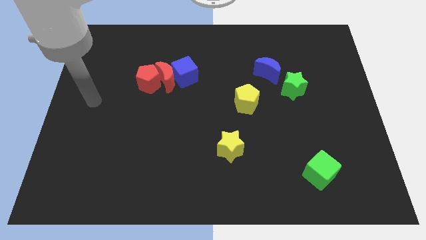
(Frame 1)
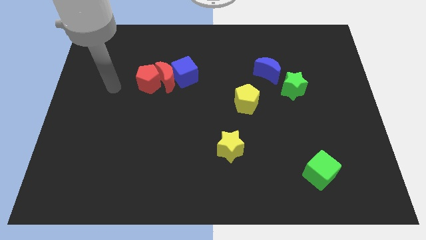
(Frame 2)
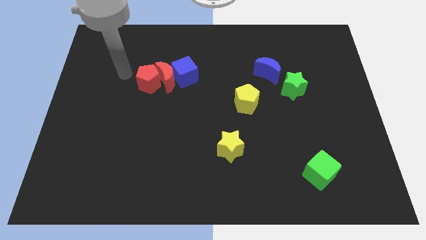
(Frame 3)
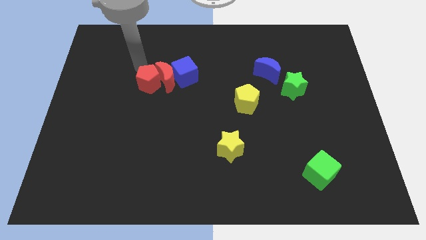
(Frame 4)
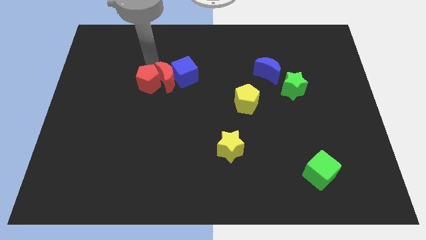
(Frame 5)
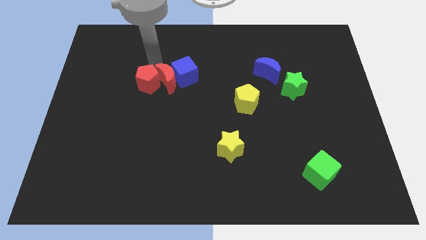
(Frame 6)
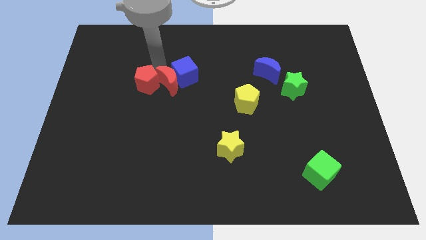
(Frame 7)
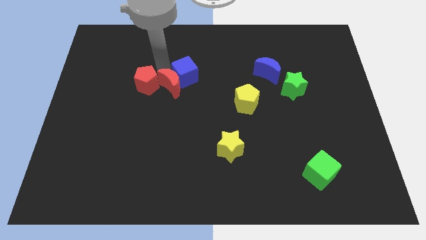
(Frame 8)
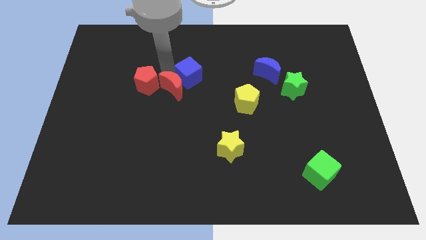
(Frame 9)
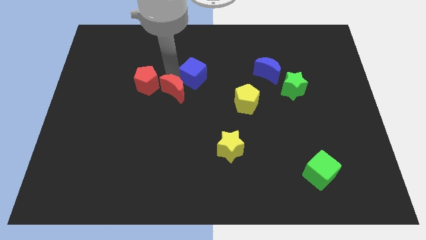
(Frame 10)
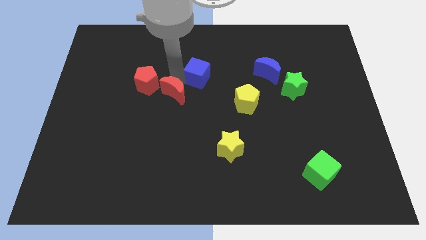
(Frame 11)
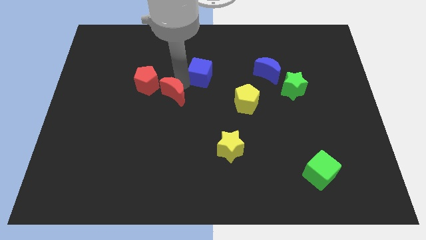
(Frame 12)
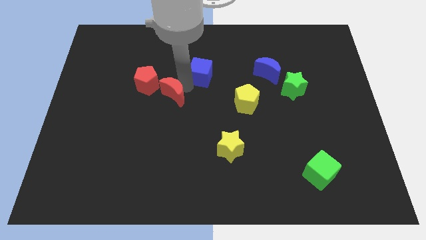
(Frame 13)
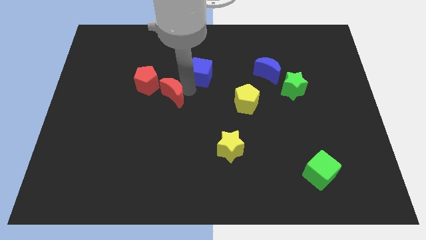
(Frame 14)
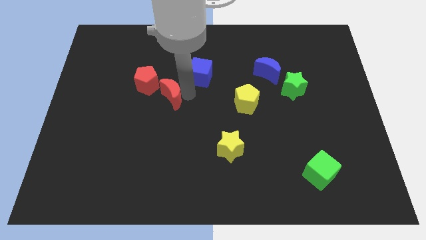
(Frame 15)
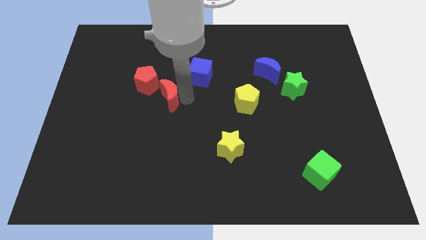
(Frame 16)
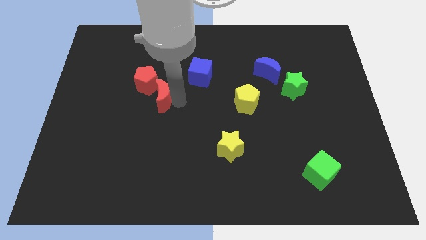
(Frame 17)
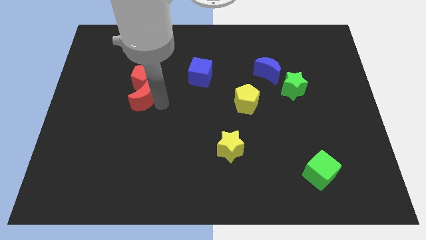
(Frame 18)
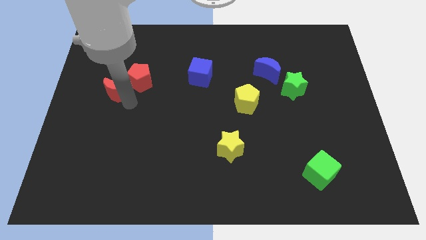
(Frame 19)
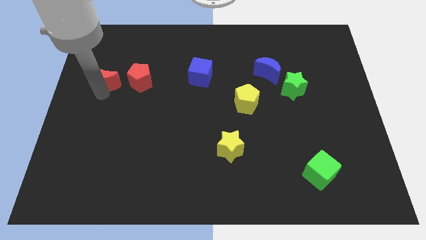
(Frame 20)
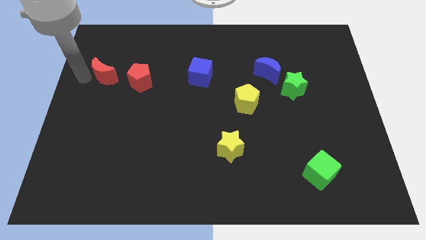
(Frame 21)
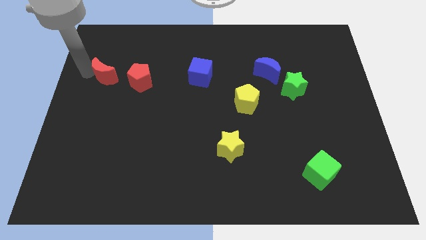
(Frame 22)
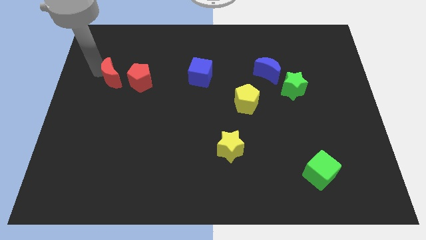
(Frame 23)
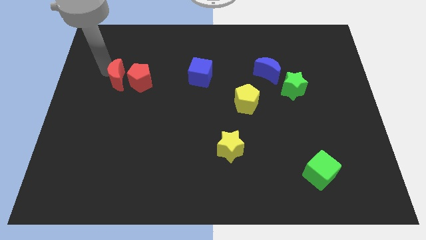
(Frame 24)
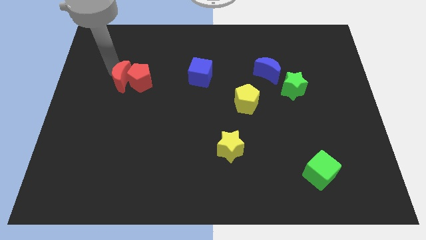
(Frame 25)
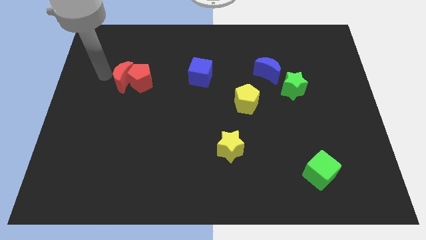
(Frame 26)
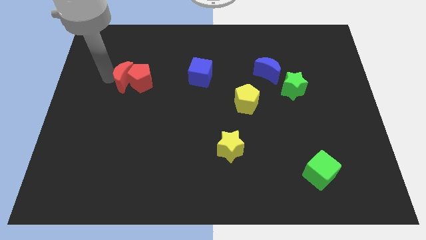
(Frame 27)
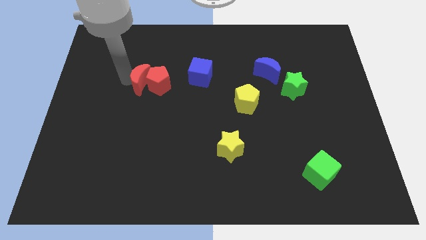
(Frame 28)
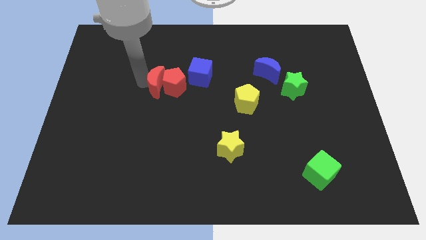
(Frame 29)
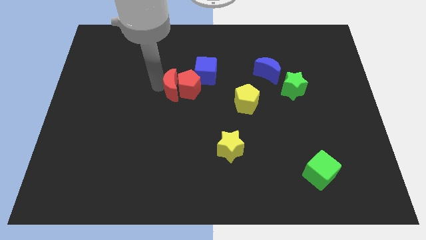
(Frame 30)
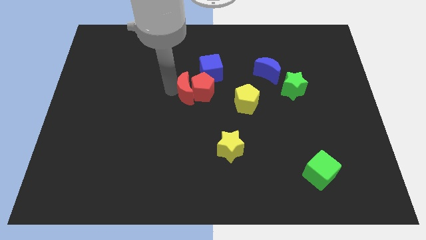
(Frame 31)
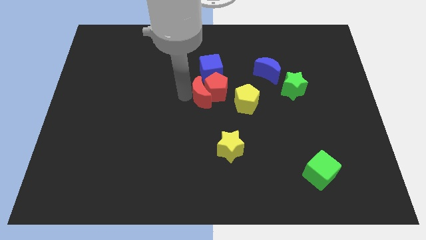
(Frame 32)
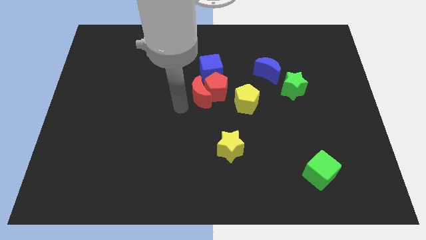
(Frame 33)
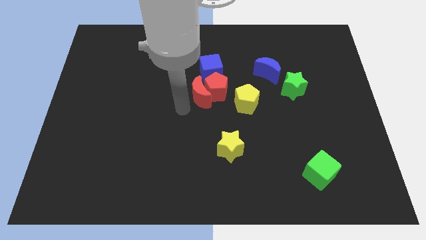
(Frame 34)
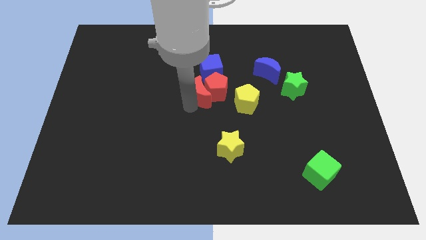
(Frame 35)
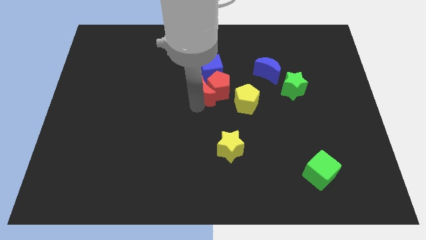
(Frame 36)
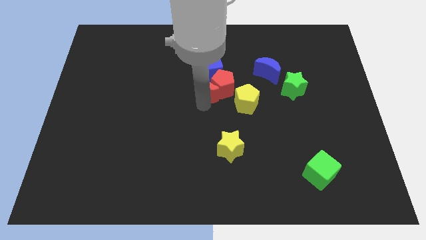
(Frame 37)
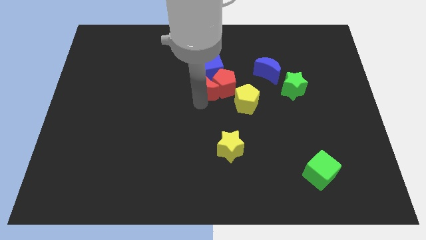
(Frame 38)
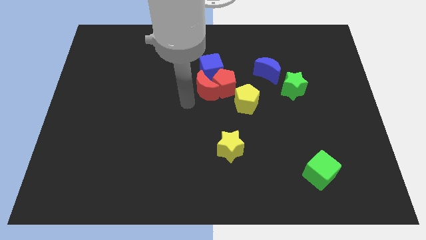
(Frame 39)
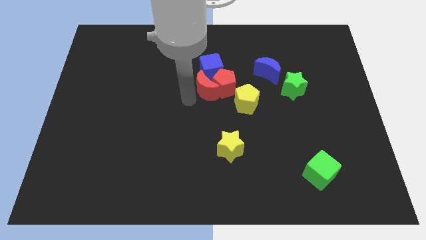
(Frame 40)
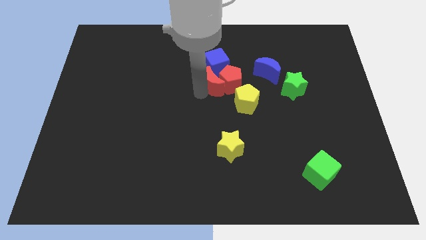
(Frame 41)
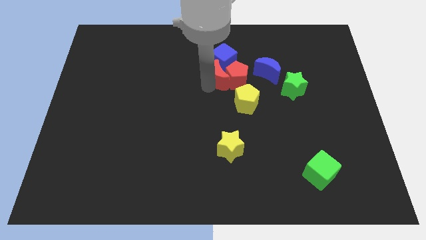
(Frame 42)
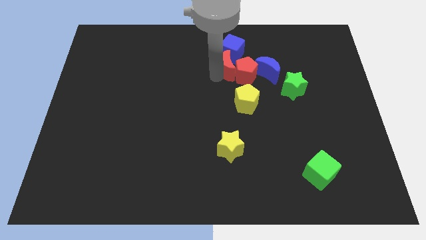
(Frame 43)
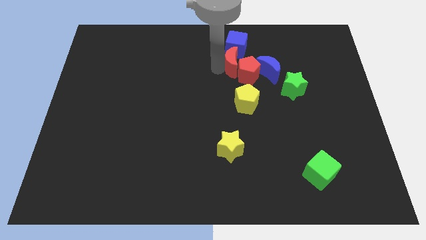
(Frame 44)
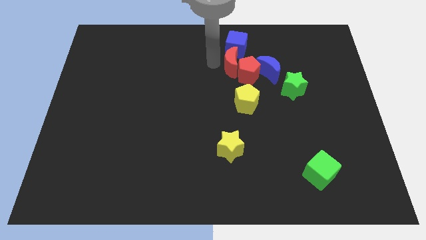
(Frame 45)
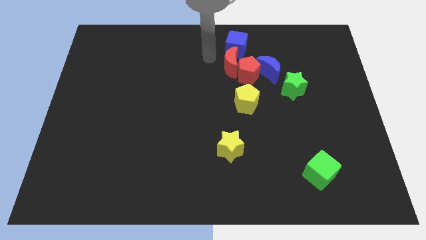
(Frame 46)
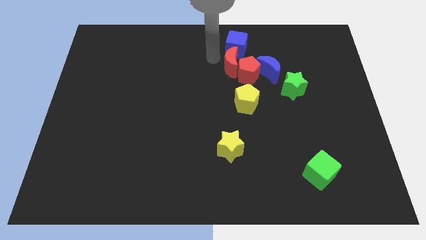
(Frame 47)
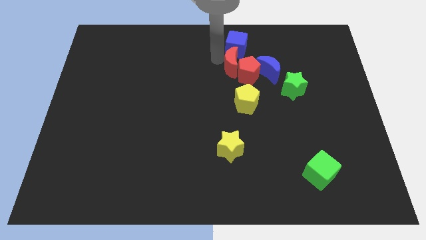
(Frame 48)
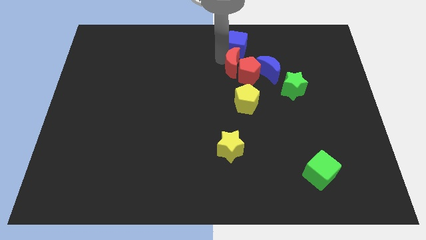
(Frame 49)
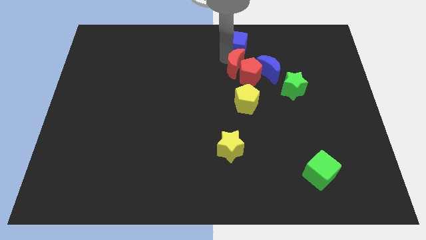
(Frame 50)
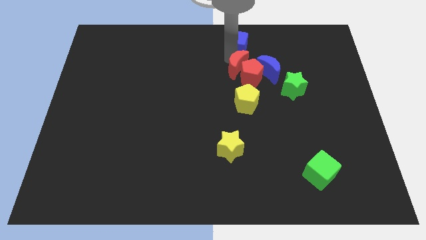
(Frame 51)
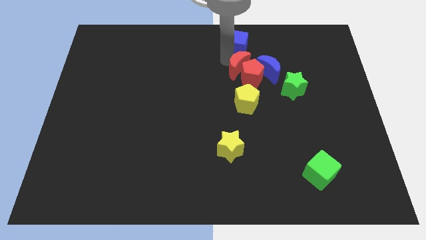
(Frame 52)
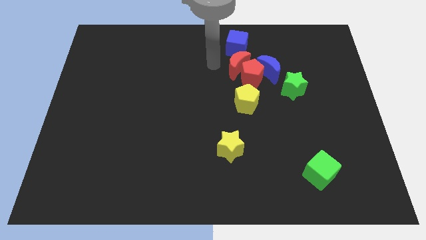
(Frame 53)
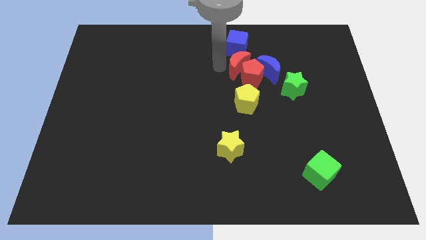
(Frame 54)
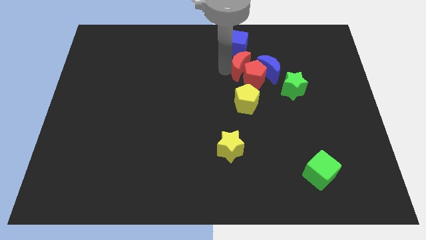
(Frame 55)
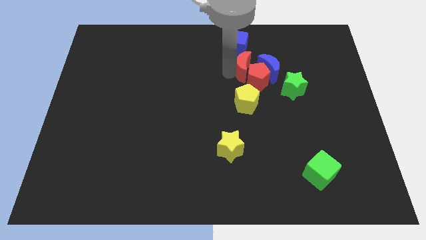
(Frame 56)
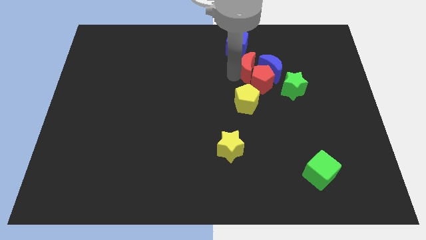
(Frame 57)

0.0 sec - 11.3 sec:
move the red moon towards the blue moon

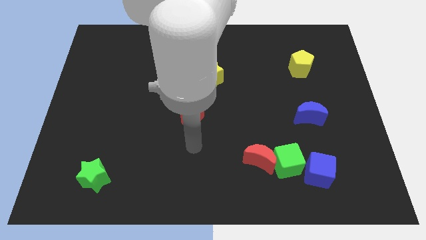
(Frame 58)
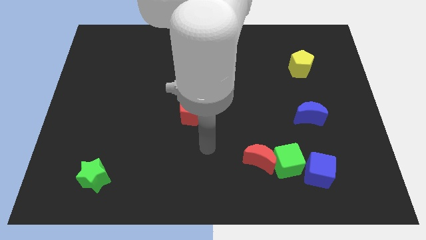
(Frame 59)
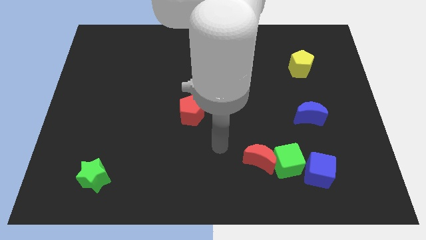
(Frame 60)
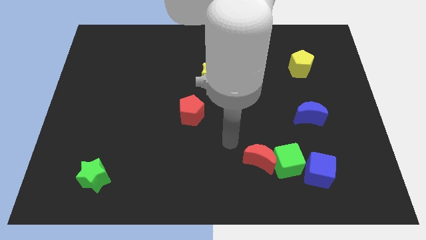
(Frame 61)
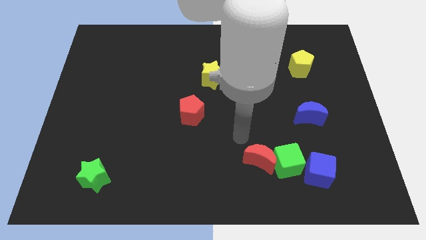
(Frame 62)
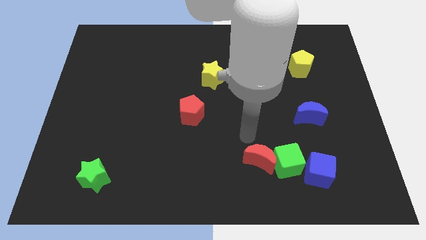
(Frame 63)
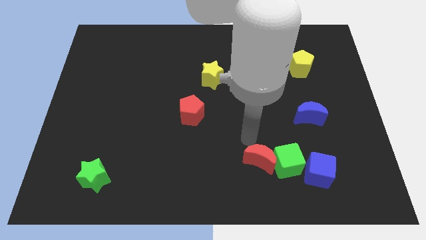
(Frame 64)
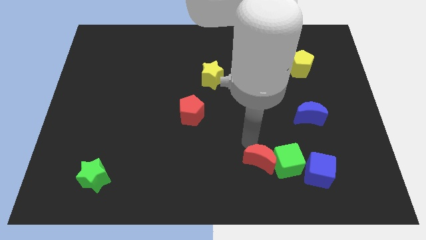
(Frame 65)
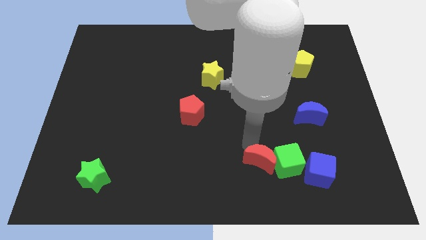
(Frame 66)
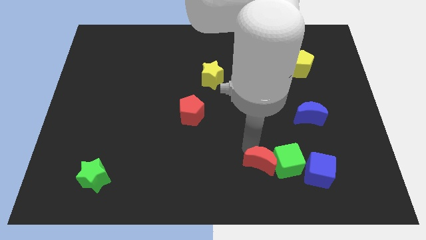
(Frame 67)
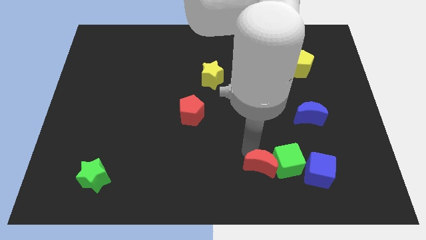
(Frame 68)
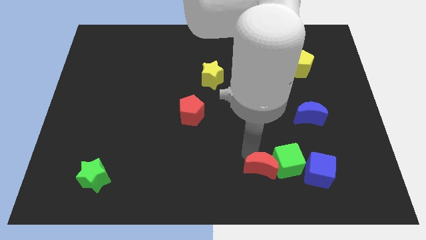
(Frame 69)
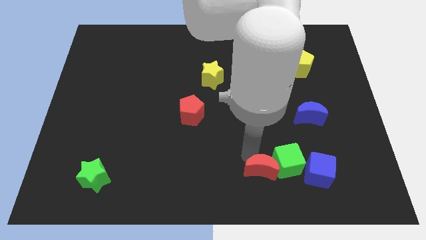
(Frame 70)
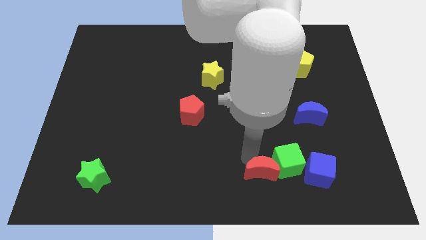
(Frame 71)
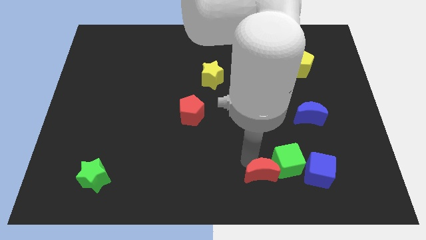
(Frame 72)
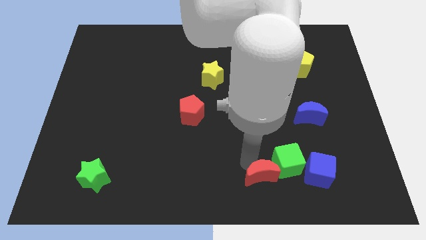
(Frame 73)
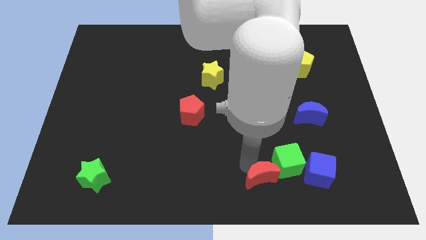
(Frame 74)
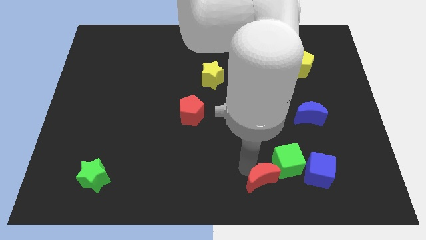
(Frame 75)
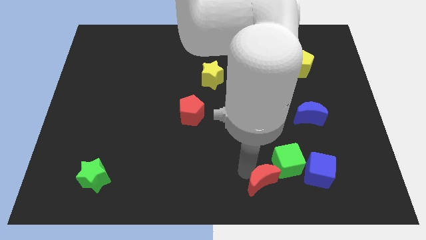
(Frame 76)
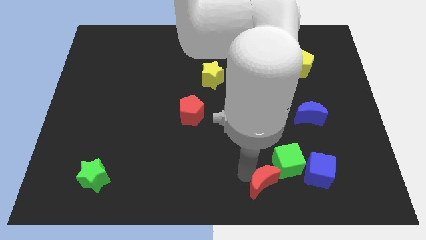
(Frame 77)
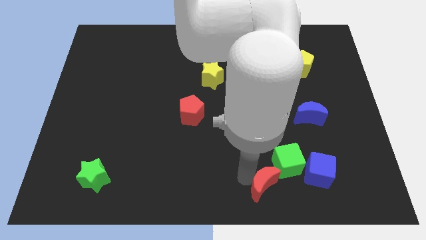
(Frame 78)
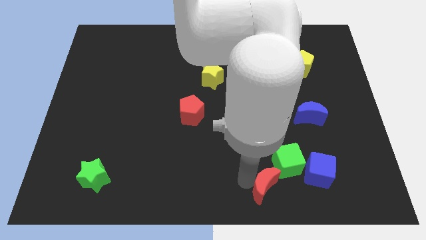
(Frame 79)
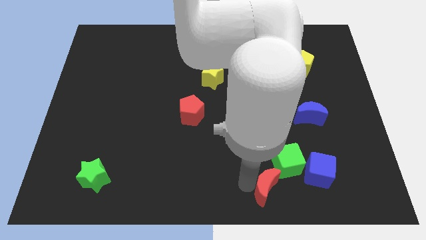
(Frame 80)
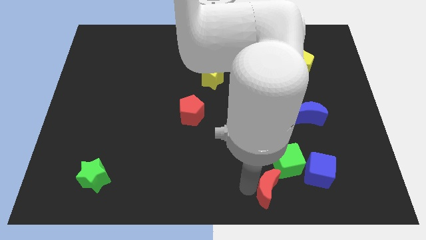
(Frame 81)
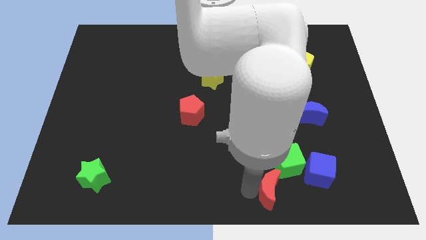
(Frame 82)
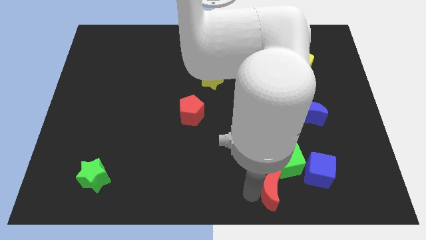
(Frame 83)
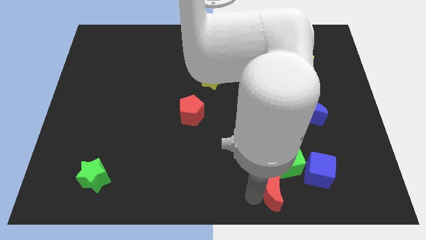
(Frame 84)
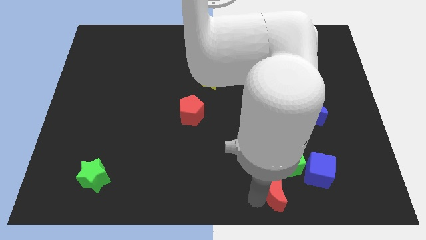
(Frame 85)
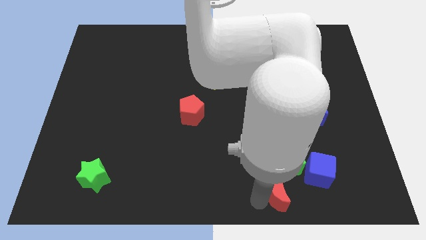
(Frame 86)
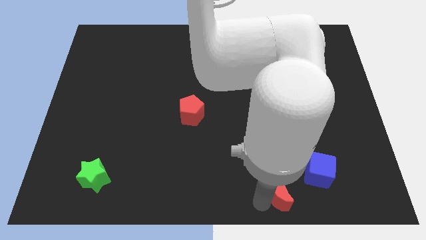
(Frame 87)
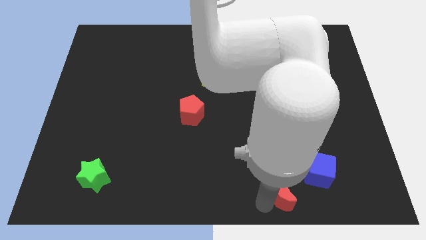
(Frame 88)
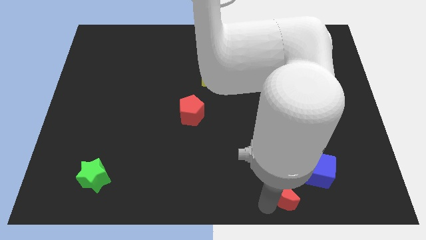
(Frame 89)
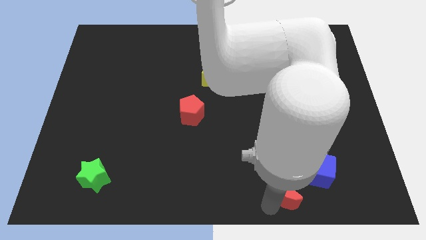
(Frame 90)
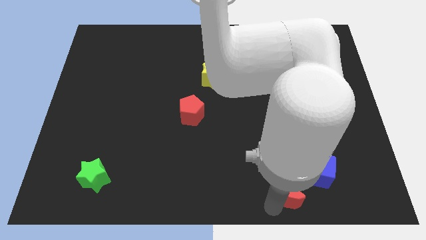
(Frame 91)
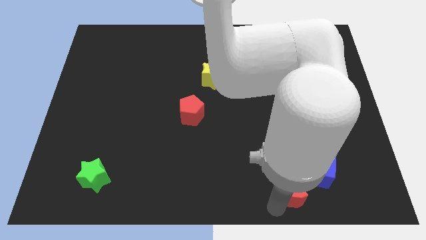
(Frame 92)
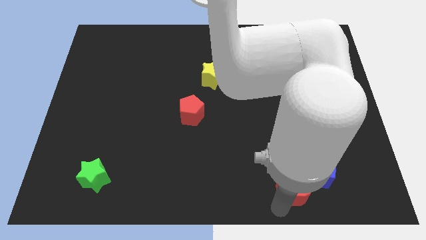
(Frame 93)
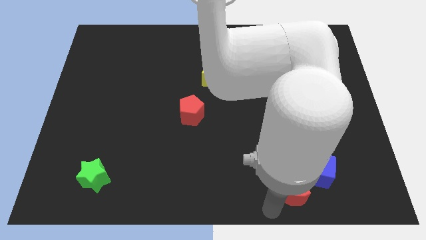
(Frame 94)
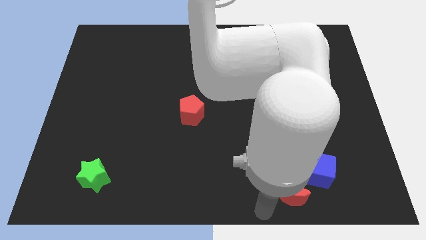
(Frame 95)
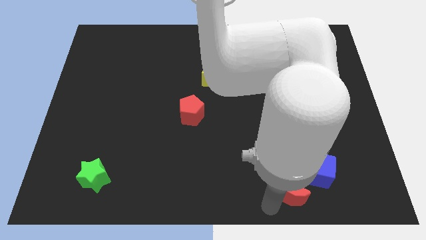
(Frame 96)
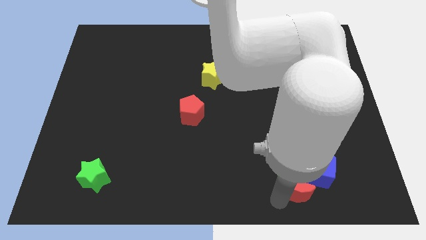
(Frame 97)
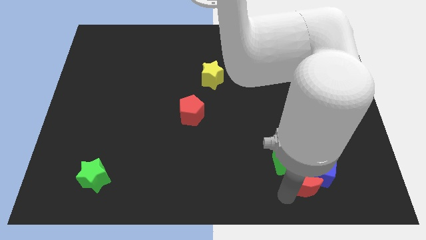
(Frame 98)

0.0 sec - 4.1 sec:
move the red moon towards the blue cube
